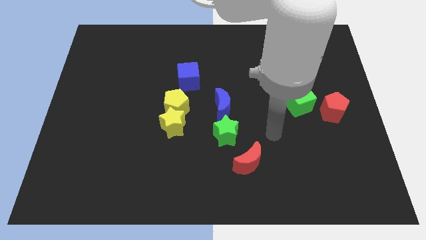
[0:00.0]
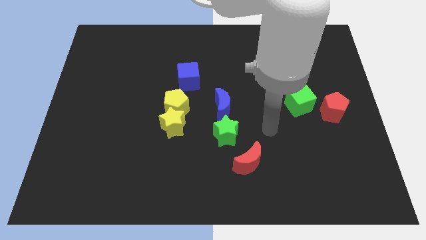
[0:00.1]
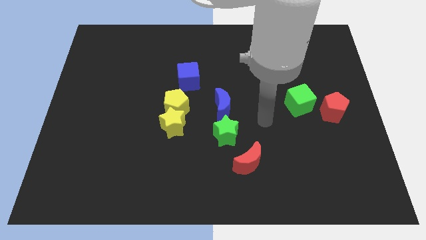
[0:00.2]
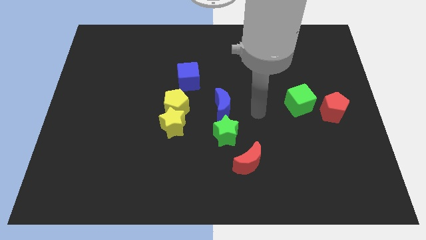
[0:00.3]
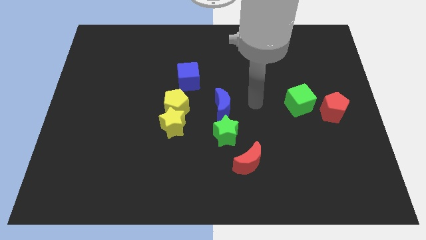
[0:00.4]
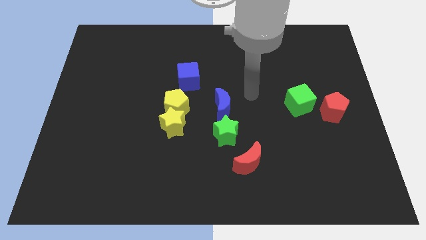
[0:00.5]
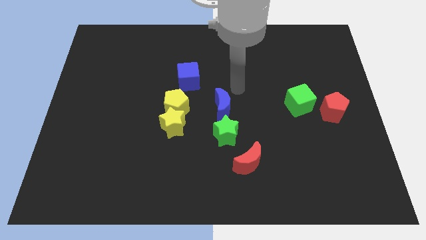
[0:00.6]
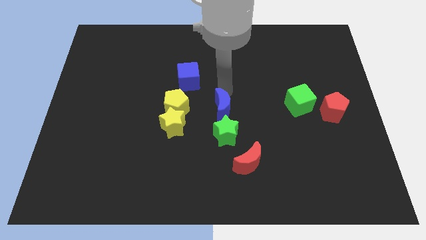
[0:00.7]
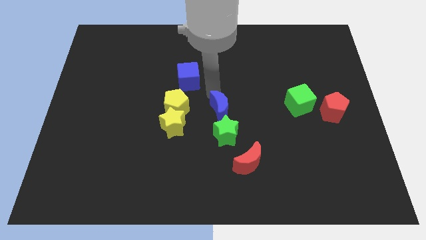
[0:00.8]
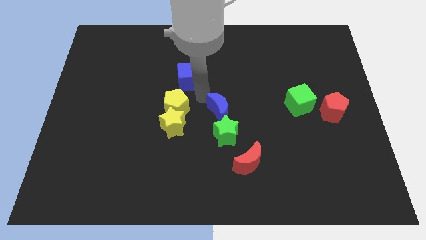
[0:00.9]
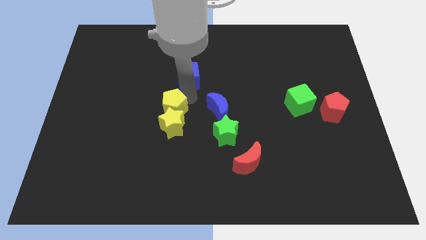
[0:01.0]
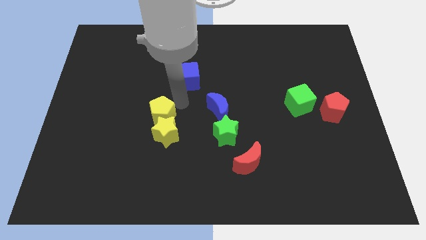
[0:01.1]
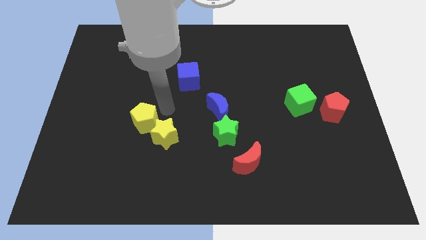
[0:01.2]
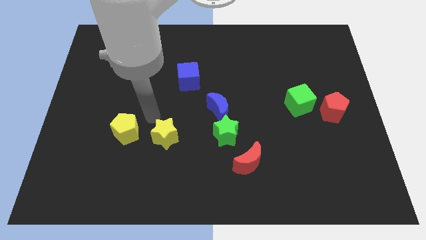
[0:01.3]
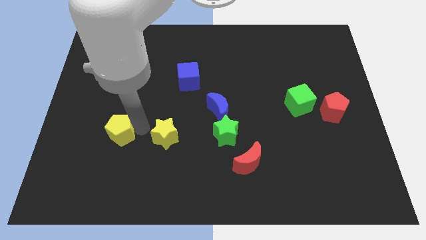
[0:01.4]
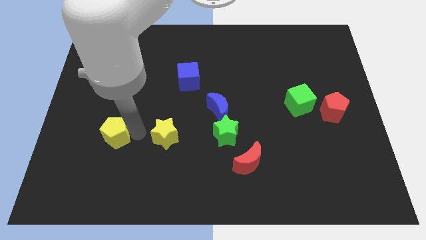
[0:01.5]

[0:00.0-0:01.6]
pull the yellow star apart from the yellow pentagon

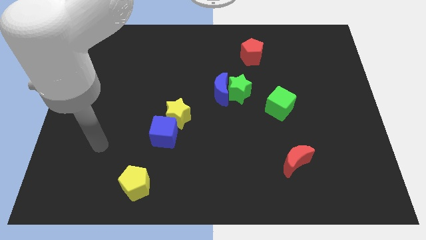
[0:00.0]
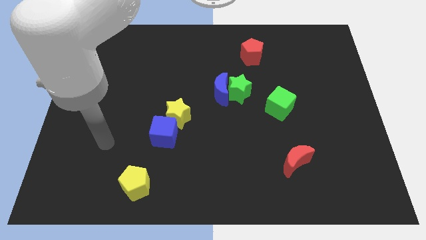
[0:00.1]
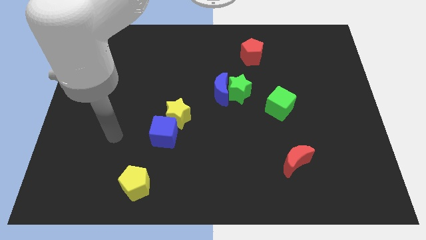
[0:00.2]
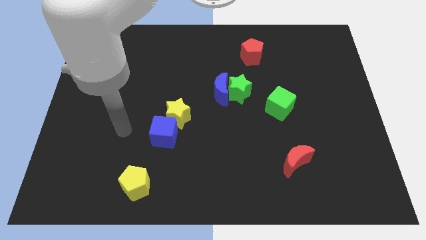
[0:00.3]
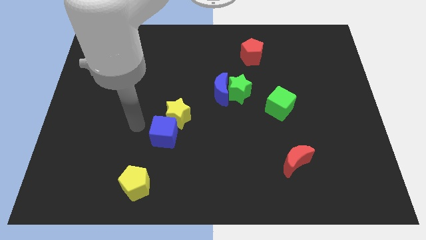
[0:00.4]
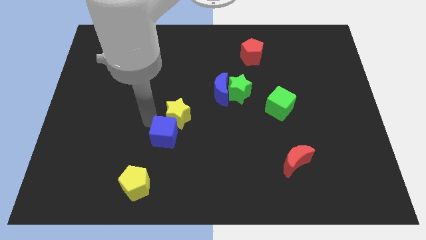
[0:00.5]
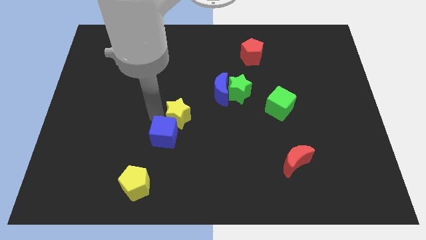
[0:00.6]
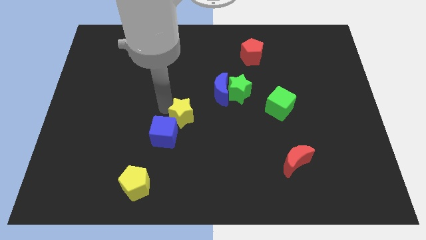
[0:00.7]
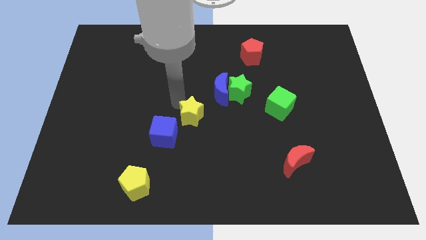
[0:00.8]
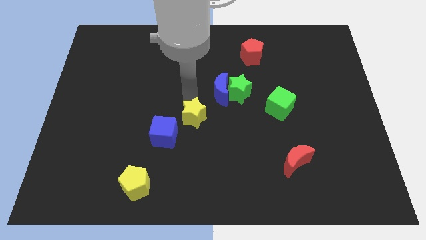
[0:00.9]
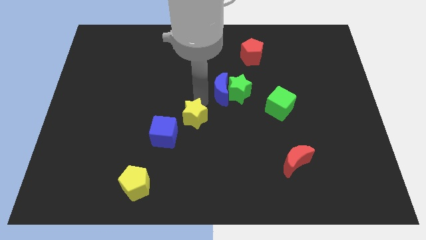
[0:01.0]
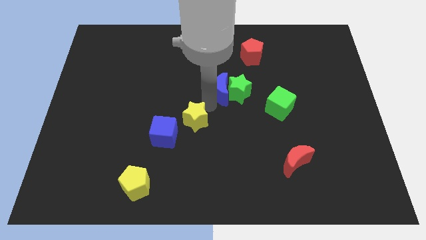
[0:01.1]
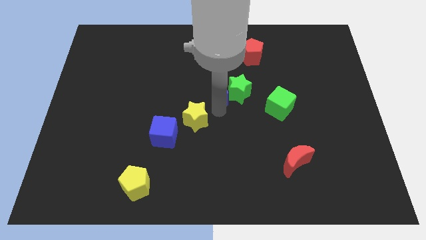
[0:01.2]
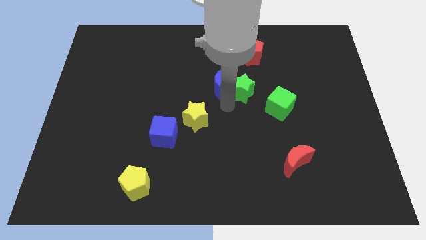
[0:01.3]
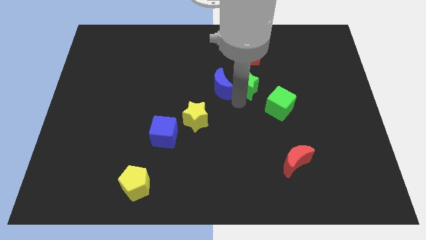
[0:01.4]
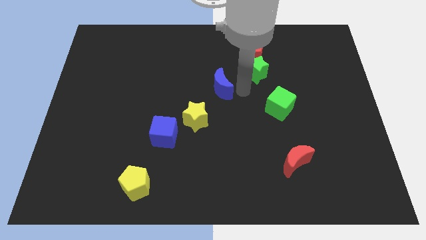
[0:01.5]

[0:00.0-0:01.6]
pull the blue moon apart from the green star

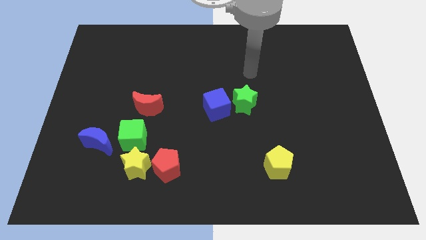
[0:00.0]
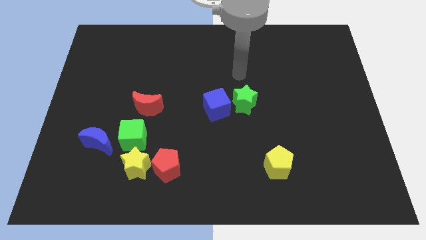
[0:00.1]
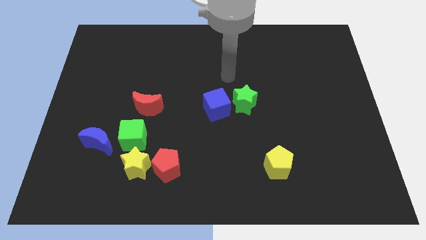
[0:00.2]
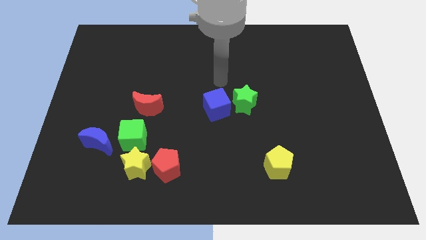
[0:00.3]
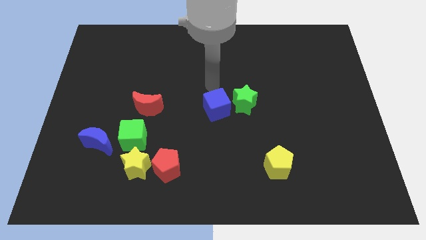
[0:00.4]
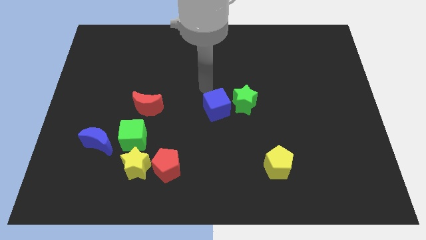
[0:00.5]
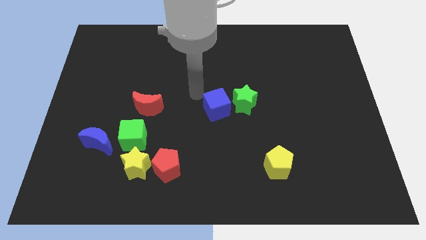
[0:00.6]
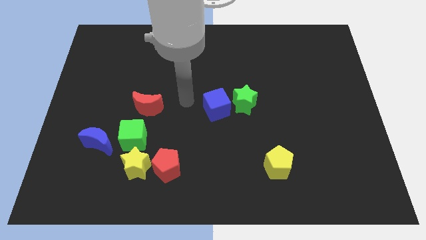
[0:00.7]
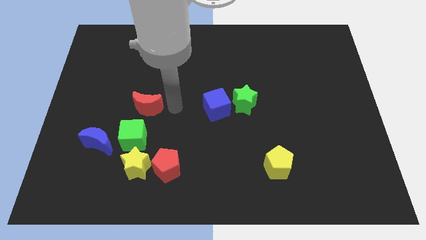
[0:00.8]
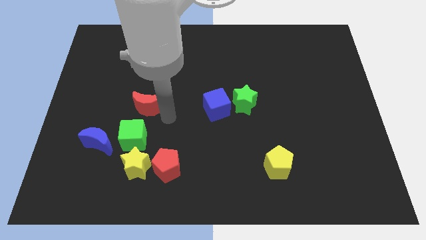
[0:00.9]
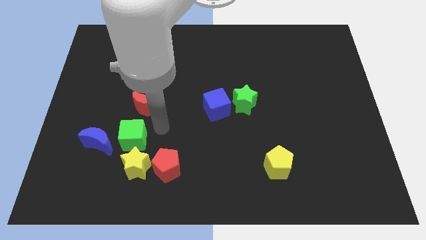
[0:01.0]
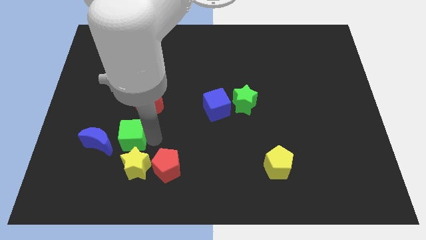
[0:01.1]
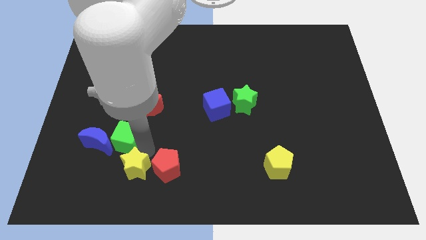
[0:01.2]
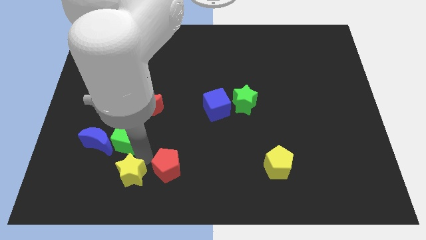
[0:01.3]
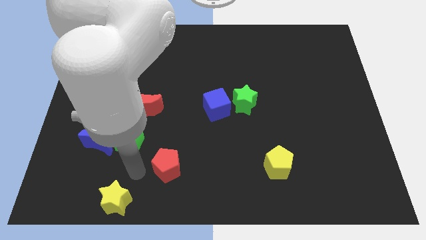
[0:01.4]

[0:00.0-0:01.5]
separate the red pentagon from the yellow star

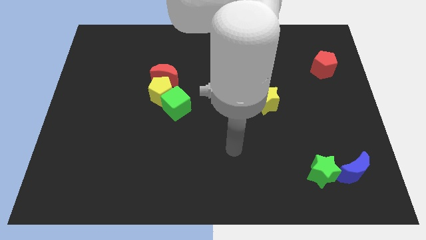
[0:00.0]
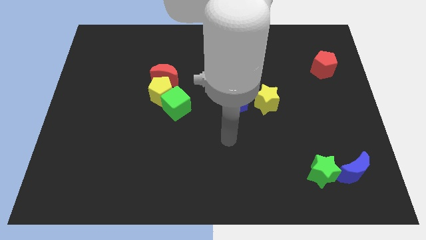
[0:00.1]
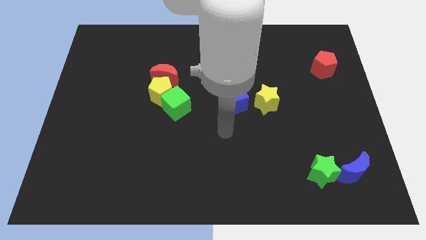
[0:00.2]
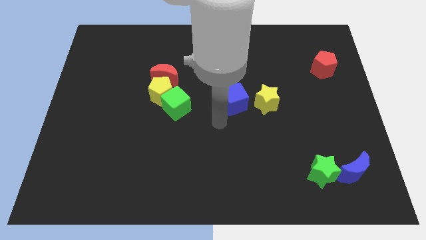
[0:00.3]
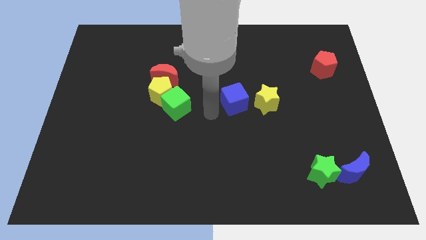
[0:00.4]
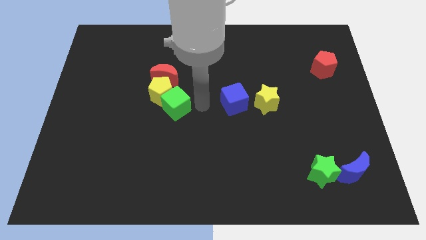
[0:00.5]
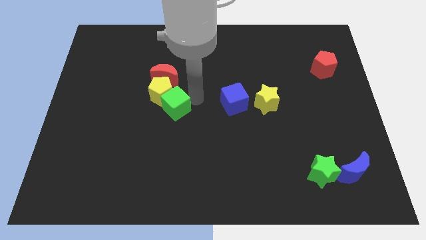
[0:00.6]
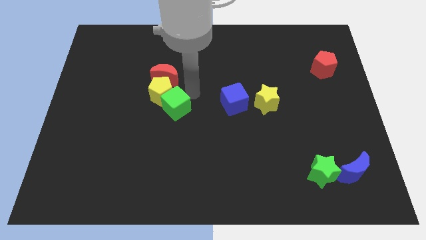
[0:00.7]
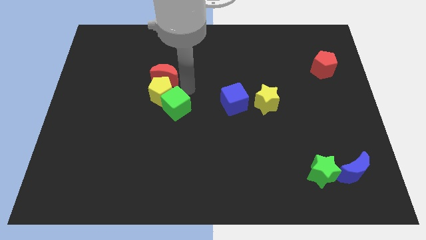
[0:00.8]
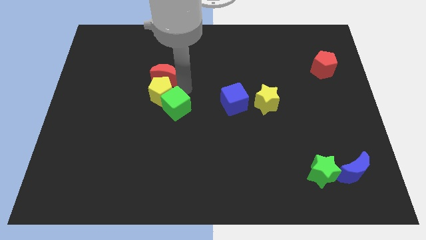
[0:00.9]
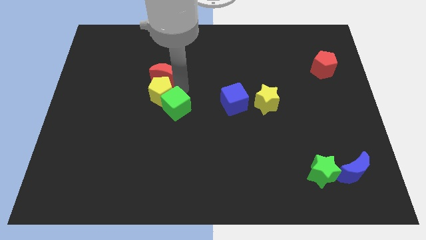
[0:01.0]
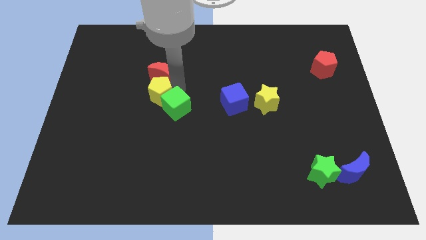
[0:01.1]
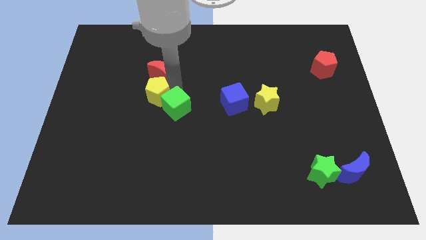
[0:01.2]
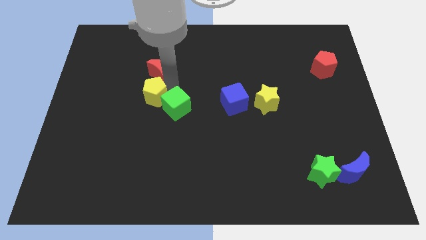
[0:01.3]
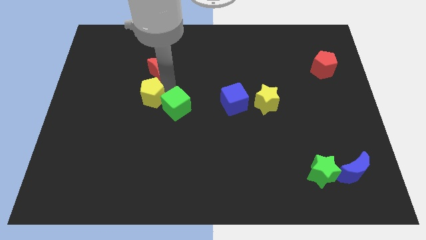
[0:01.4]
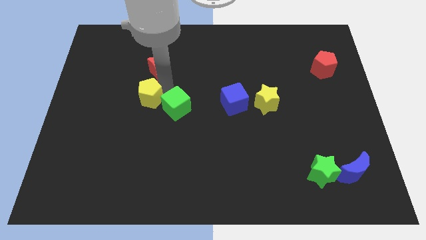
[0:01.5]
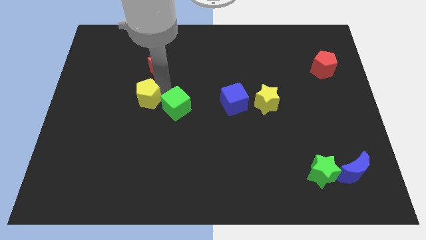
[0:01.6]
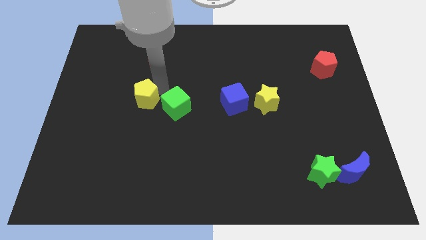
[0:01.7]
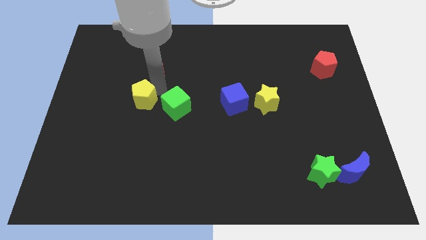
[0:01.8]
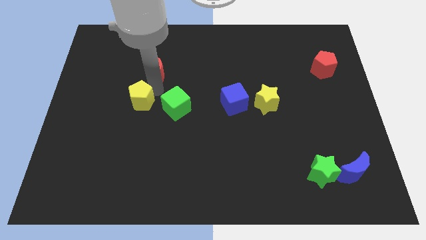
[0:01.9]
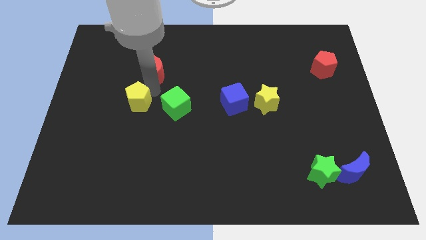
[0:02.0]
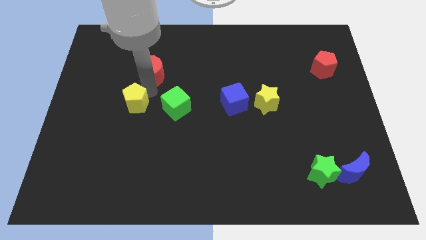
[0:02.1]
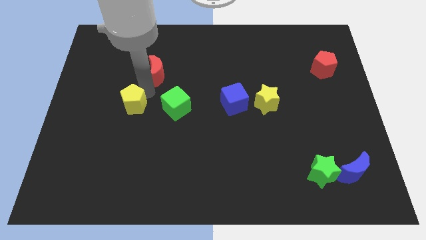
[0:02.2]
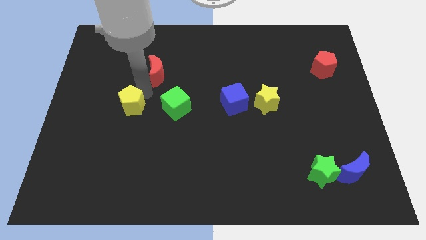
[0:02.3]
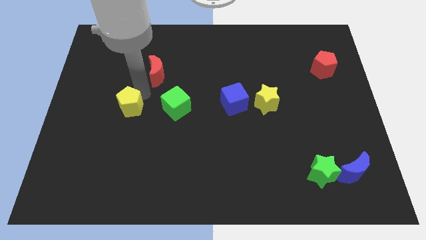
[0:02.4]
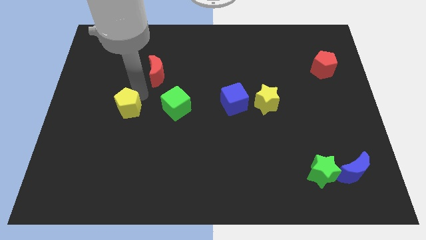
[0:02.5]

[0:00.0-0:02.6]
move the yellow pentagon away from the red moon and green cube

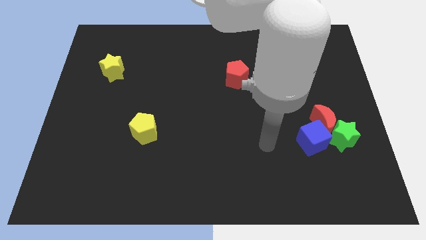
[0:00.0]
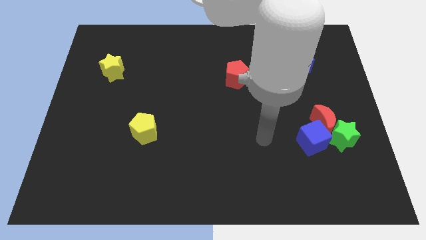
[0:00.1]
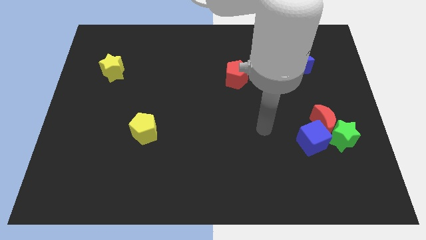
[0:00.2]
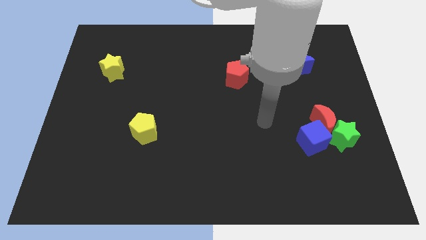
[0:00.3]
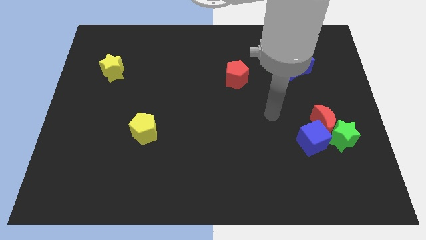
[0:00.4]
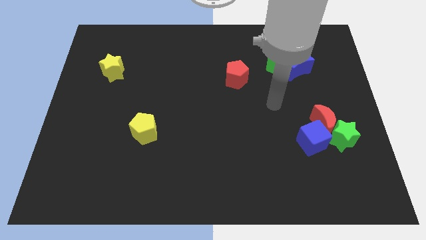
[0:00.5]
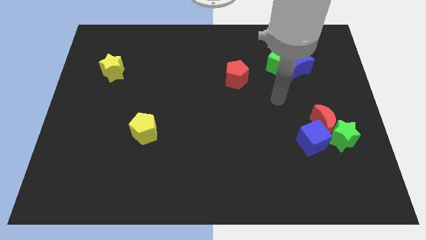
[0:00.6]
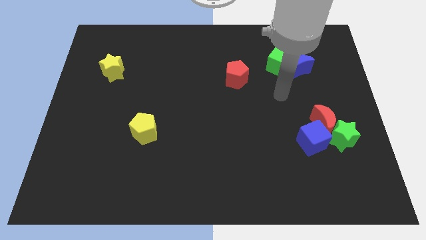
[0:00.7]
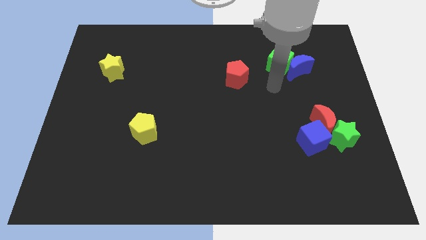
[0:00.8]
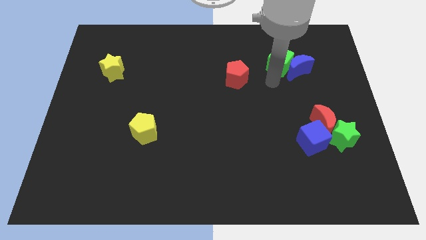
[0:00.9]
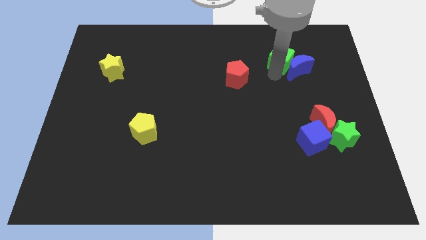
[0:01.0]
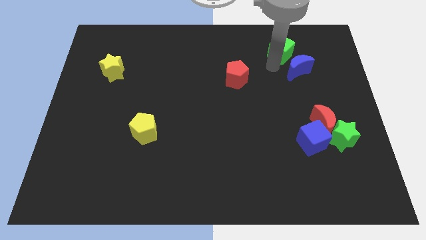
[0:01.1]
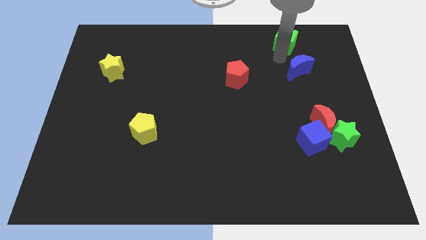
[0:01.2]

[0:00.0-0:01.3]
move the blue moon away from the green cube

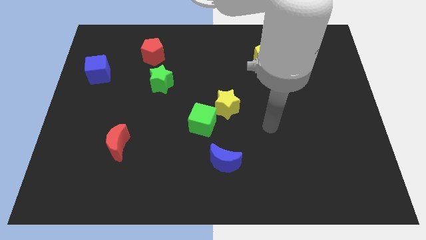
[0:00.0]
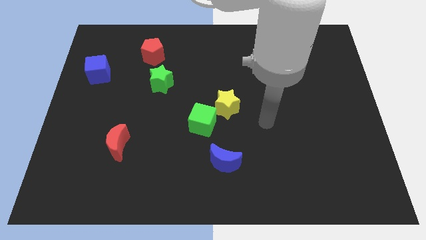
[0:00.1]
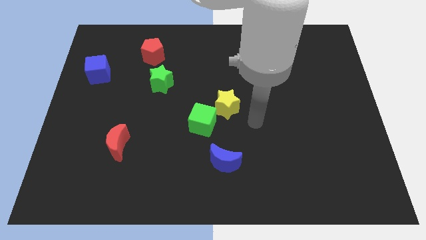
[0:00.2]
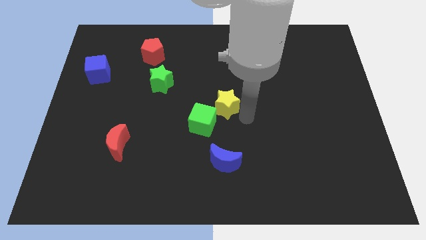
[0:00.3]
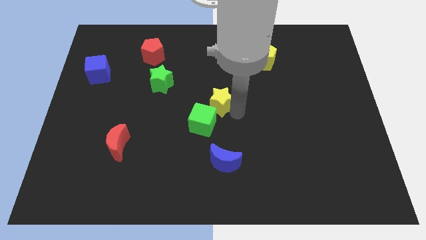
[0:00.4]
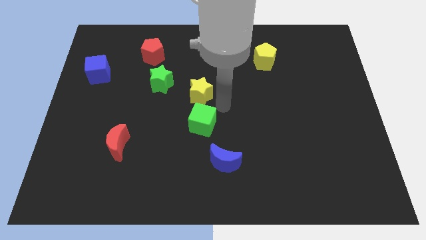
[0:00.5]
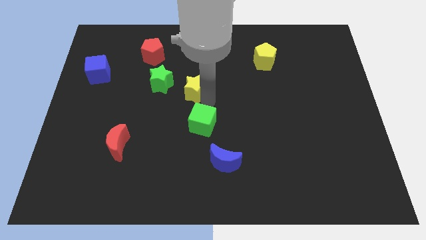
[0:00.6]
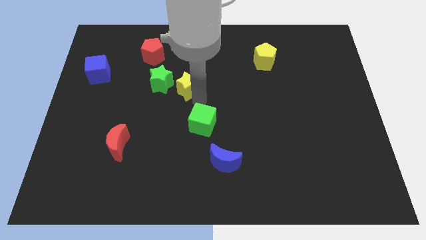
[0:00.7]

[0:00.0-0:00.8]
pull the green cube apart from the yellow star
